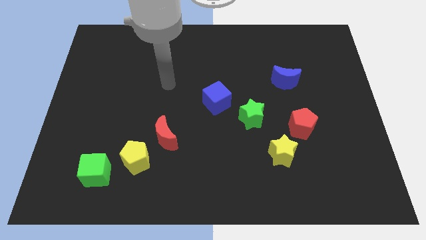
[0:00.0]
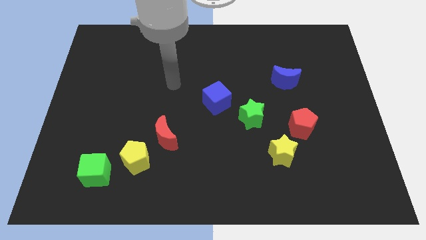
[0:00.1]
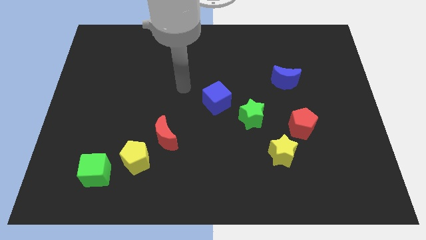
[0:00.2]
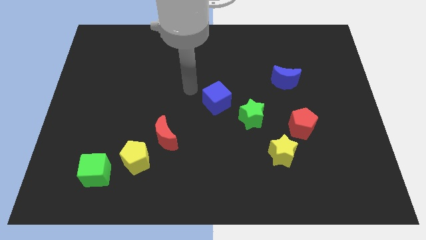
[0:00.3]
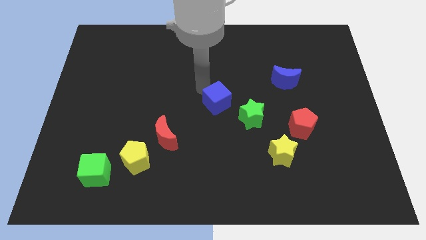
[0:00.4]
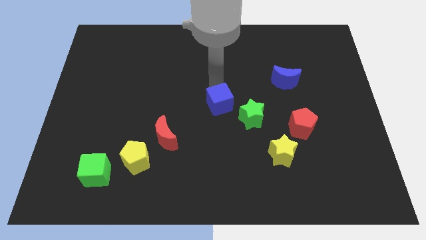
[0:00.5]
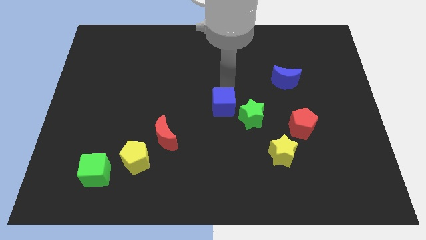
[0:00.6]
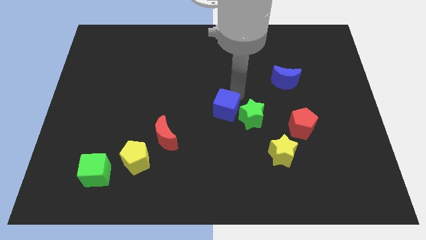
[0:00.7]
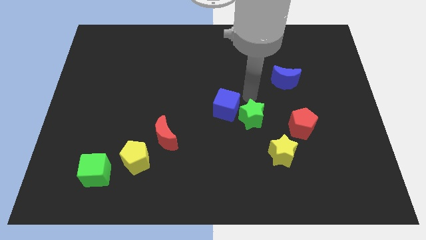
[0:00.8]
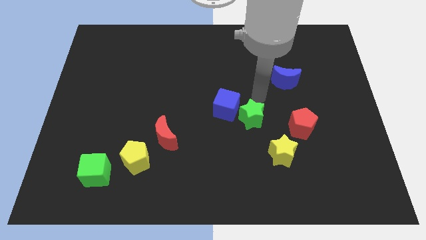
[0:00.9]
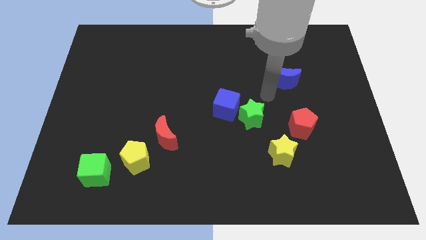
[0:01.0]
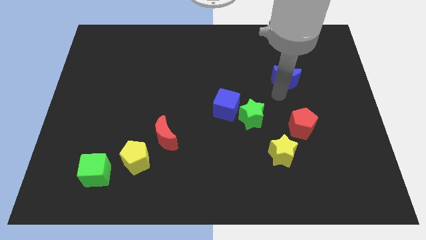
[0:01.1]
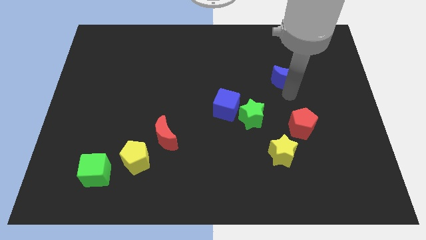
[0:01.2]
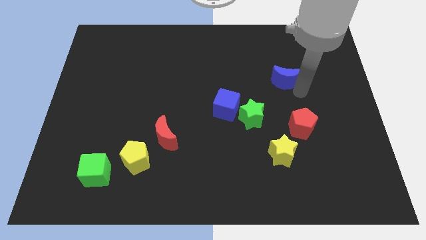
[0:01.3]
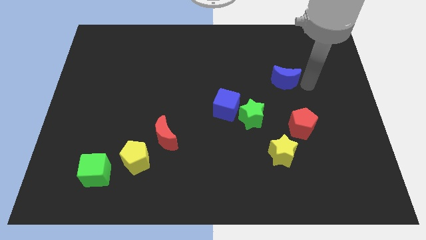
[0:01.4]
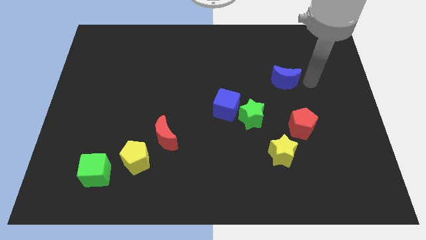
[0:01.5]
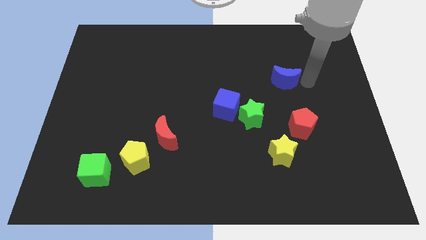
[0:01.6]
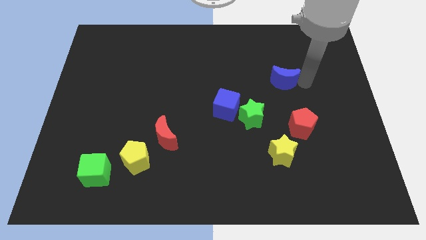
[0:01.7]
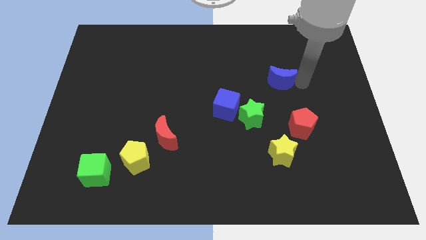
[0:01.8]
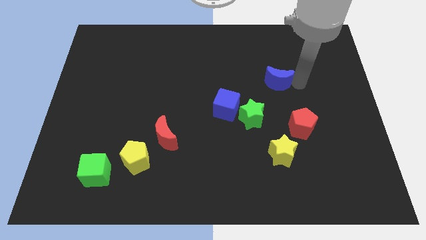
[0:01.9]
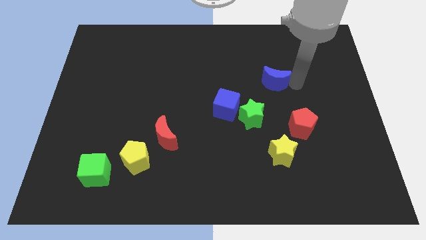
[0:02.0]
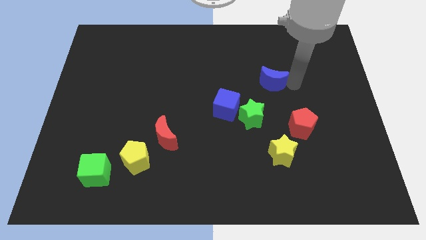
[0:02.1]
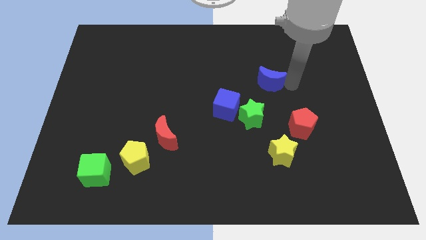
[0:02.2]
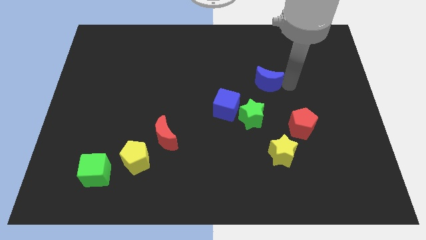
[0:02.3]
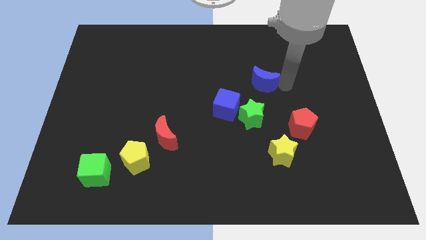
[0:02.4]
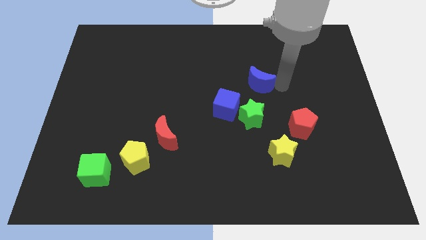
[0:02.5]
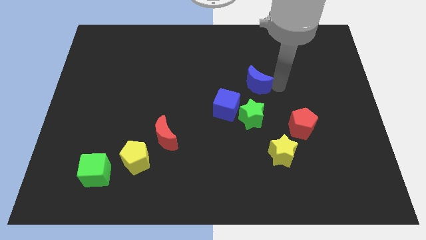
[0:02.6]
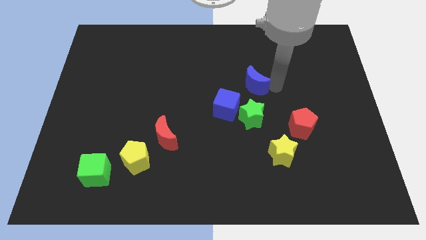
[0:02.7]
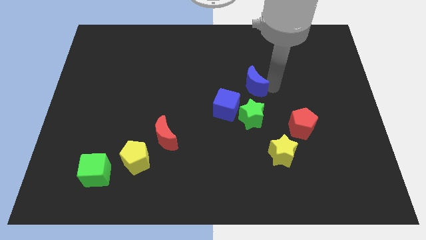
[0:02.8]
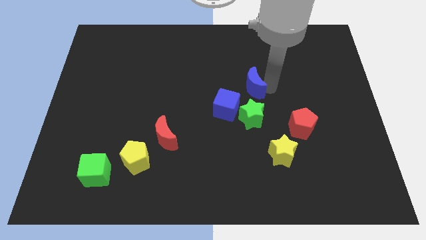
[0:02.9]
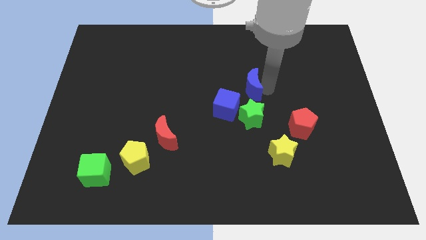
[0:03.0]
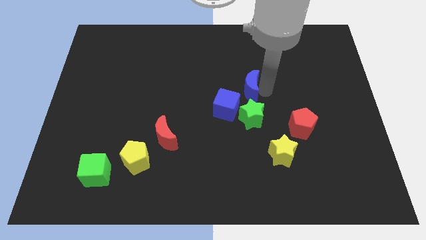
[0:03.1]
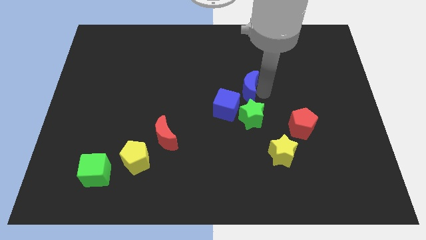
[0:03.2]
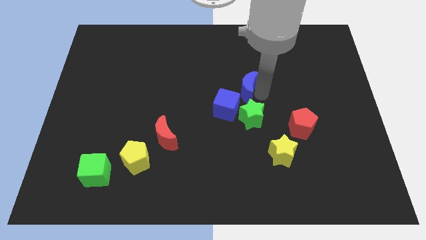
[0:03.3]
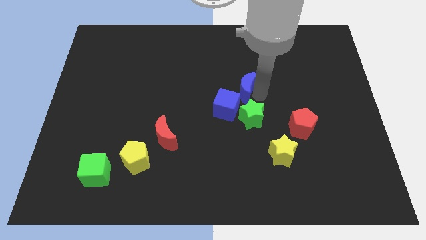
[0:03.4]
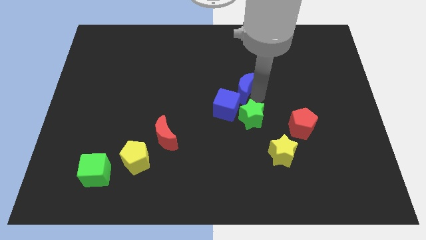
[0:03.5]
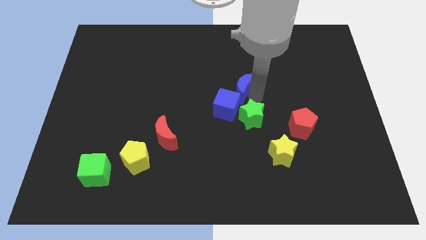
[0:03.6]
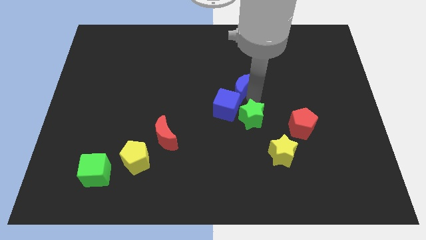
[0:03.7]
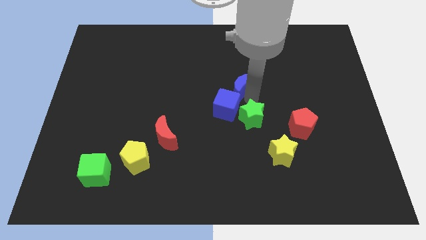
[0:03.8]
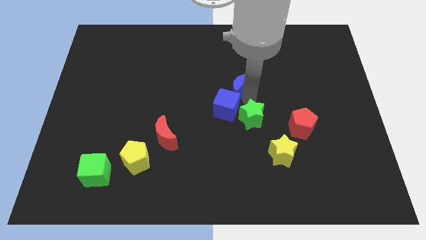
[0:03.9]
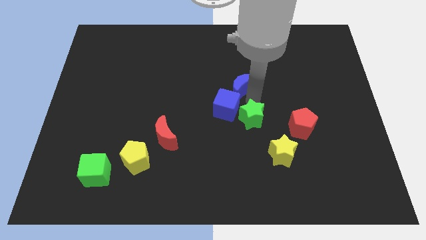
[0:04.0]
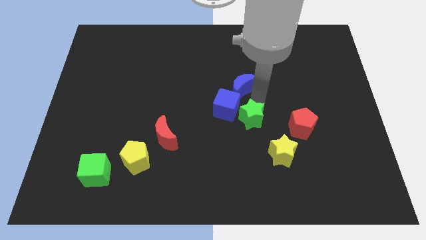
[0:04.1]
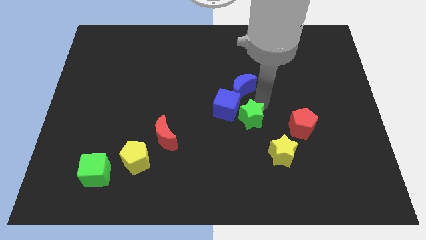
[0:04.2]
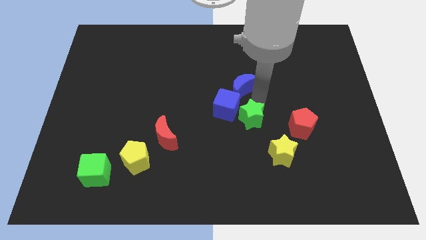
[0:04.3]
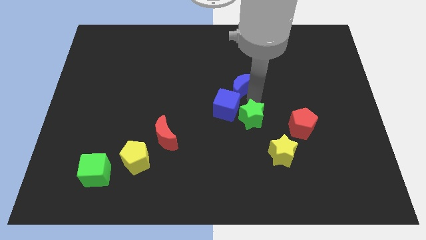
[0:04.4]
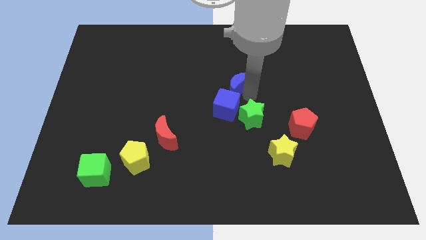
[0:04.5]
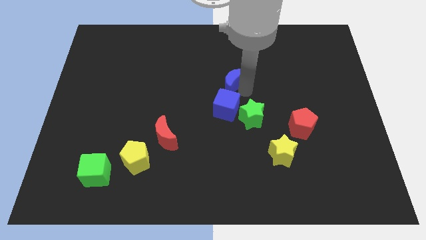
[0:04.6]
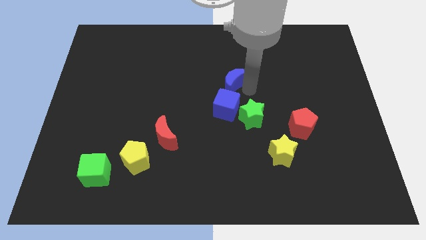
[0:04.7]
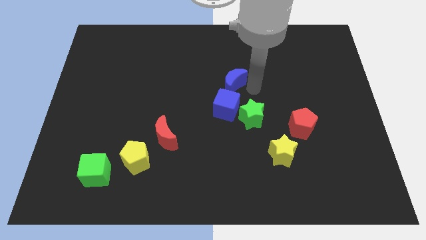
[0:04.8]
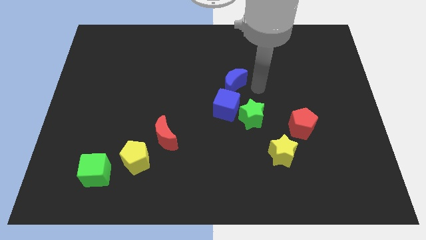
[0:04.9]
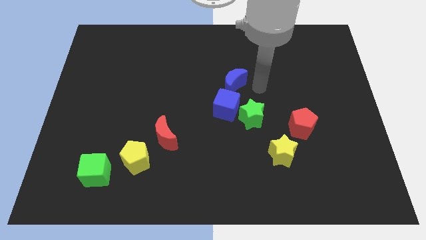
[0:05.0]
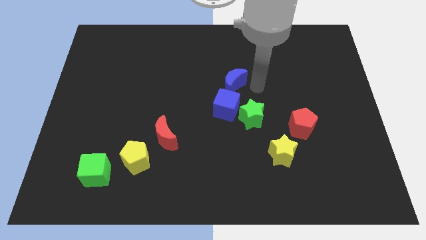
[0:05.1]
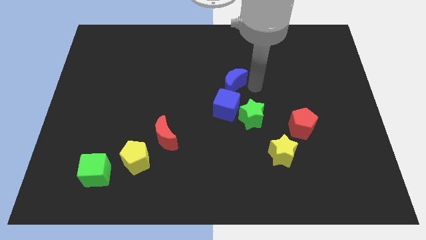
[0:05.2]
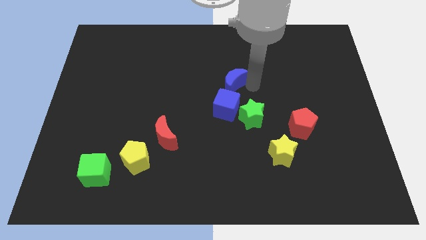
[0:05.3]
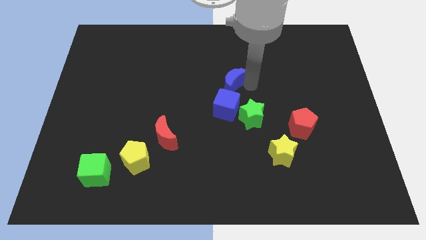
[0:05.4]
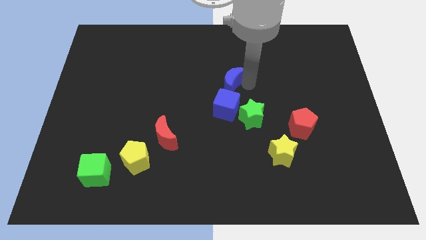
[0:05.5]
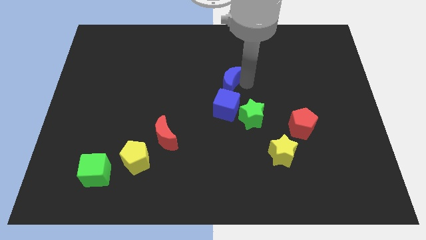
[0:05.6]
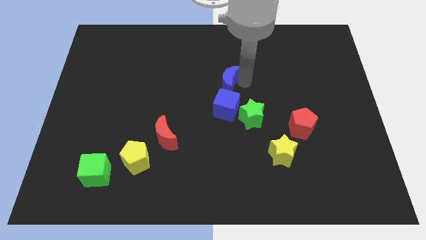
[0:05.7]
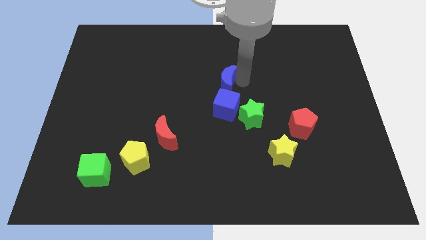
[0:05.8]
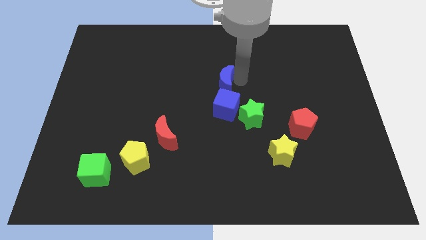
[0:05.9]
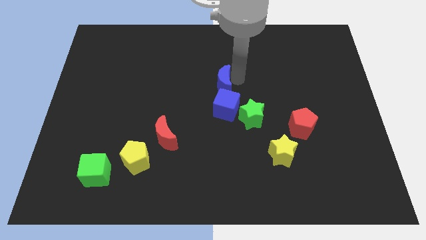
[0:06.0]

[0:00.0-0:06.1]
push the blue moon diagonally up and to the left of the blue cube

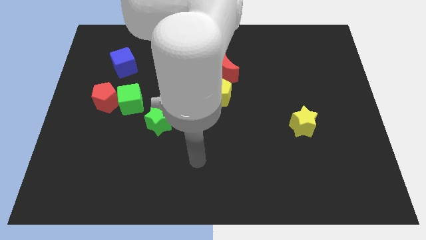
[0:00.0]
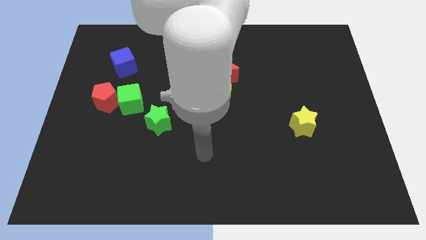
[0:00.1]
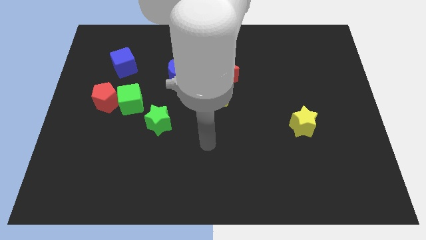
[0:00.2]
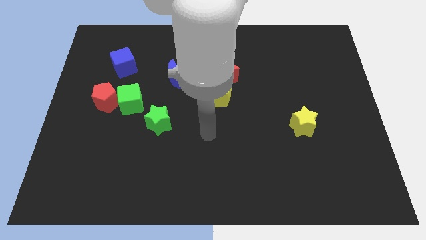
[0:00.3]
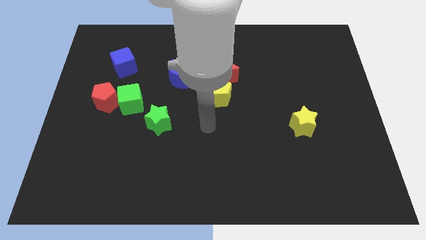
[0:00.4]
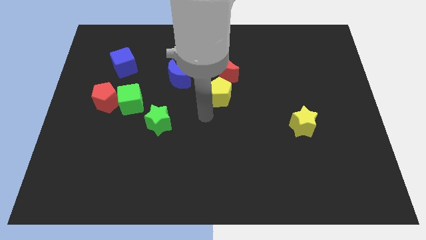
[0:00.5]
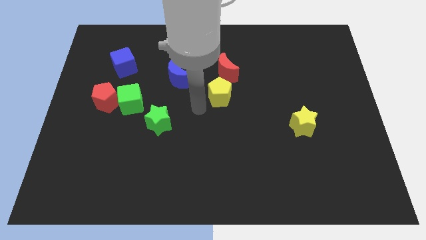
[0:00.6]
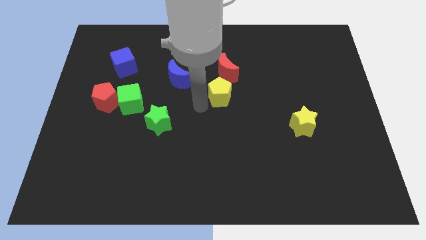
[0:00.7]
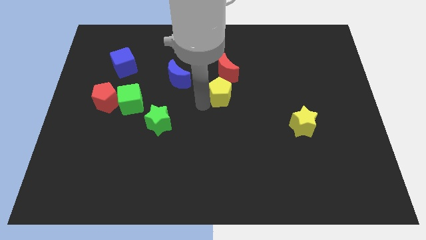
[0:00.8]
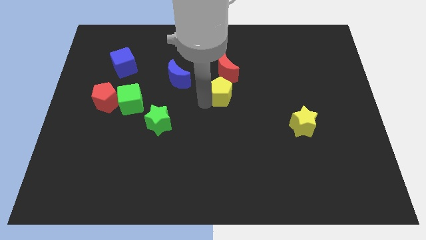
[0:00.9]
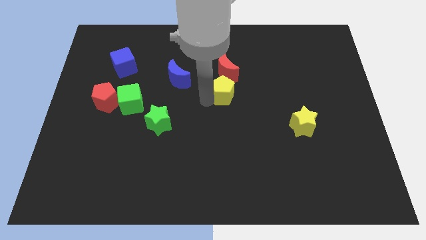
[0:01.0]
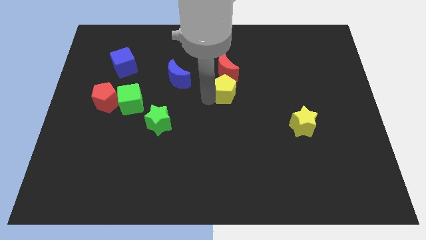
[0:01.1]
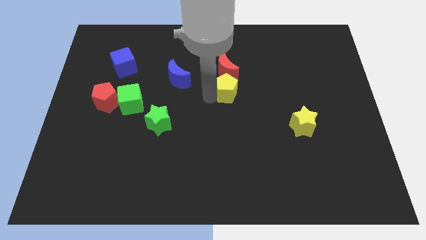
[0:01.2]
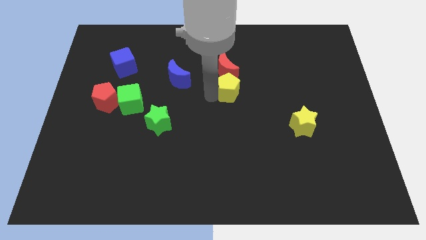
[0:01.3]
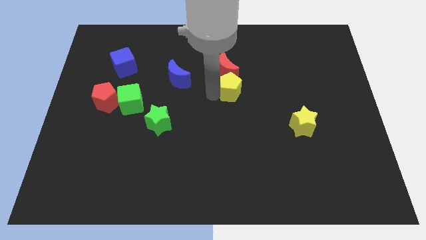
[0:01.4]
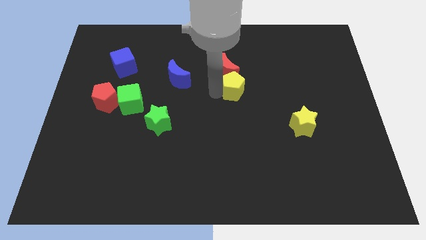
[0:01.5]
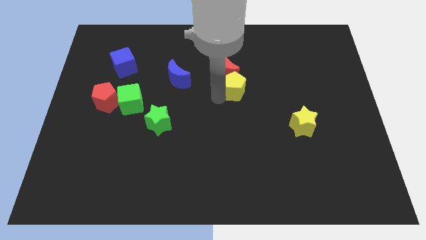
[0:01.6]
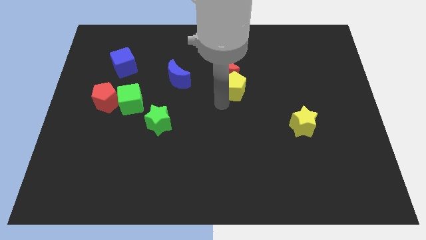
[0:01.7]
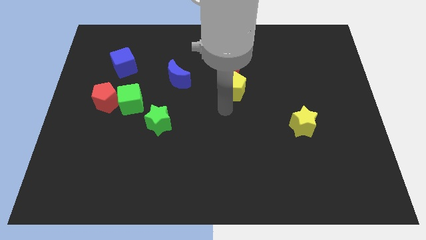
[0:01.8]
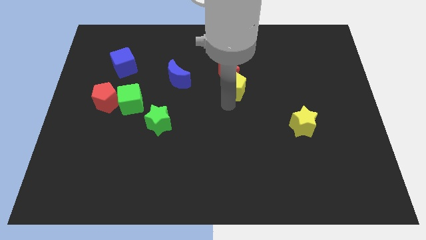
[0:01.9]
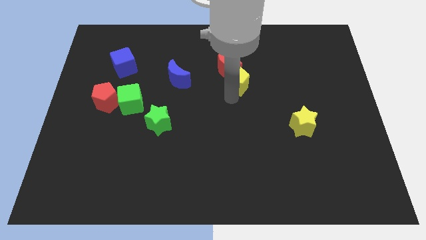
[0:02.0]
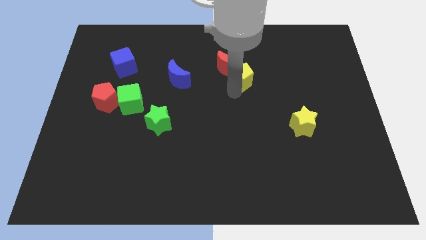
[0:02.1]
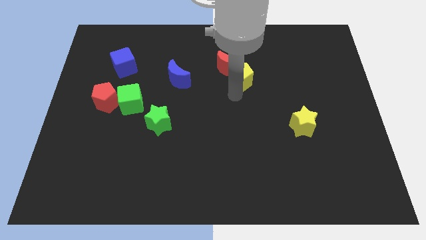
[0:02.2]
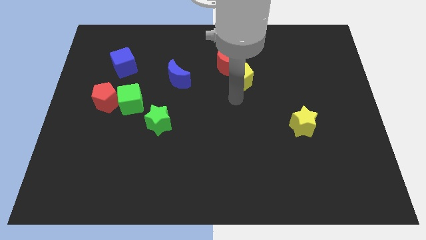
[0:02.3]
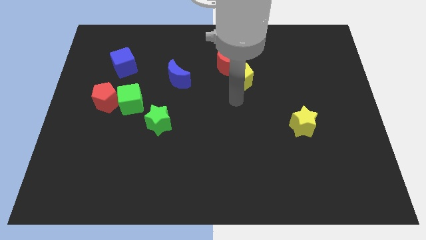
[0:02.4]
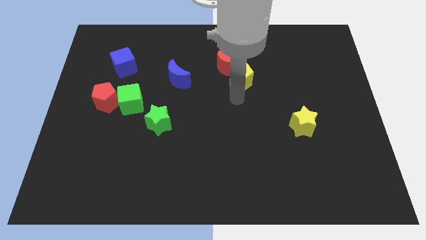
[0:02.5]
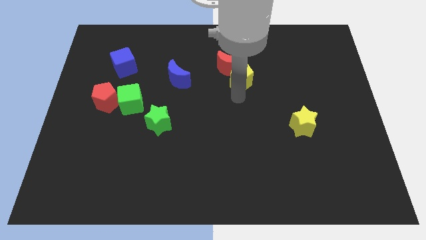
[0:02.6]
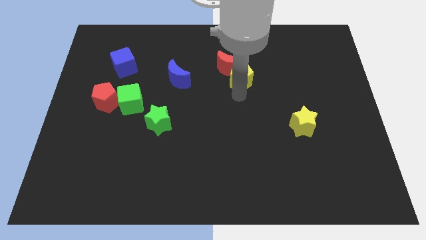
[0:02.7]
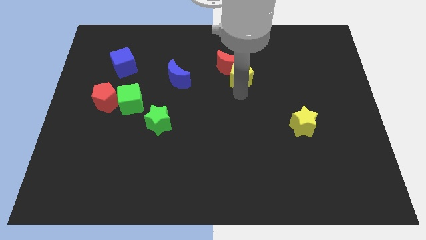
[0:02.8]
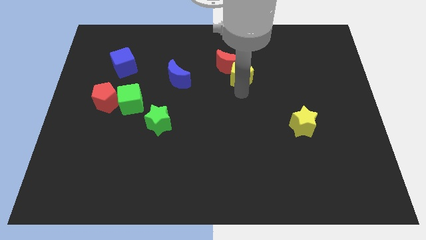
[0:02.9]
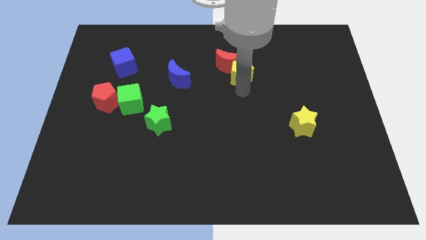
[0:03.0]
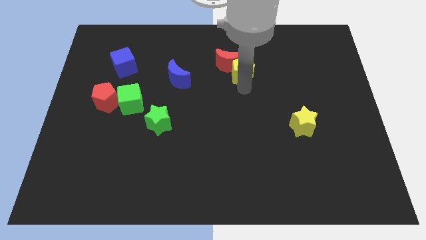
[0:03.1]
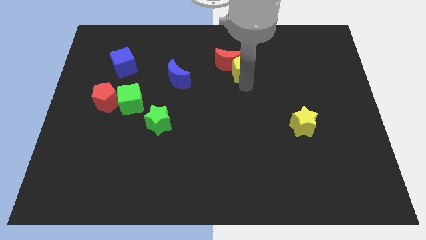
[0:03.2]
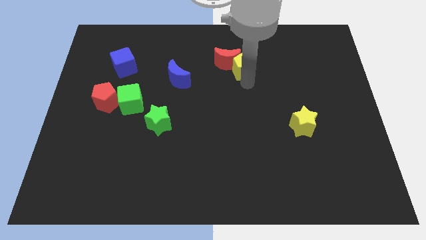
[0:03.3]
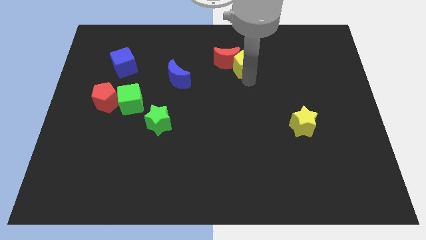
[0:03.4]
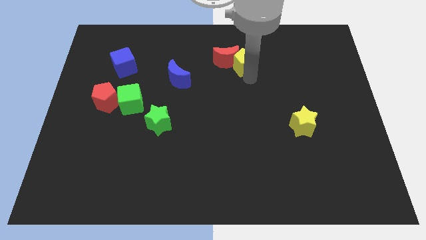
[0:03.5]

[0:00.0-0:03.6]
move the yellow pentagon to the top right side of the red moon
